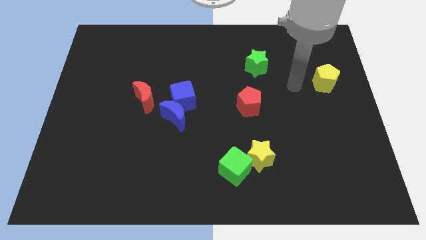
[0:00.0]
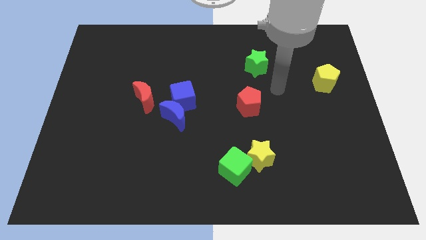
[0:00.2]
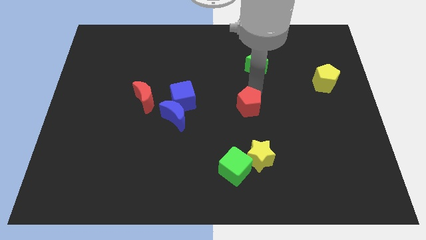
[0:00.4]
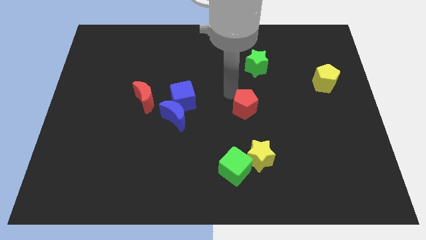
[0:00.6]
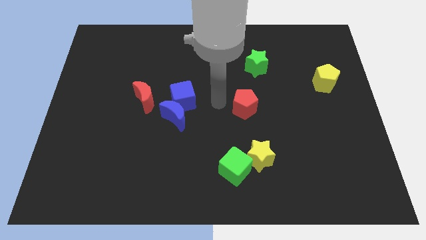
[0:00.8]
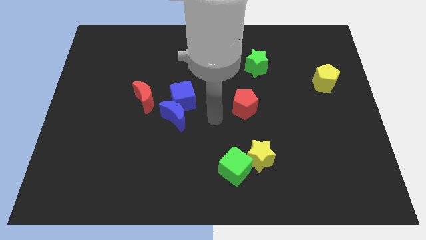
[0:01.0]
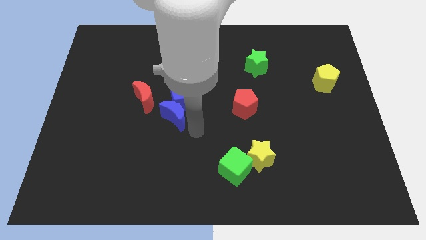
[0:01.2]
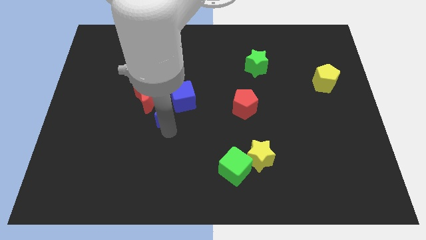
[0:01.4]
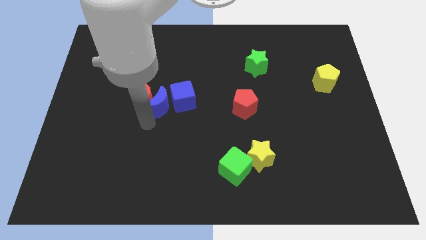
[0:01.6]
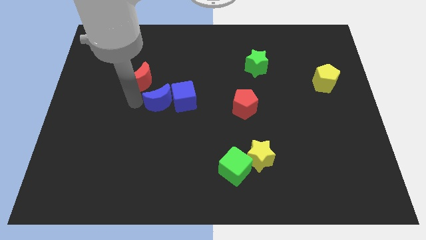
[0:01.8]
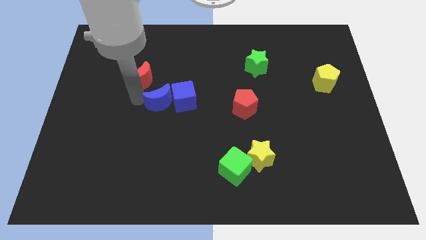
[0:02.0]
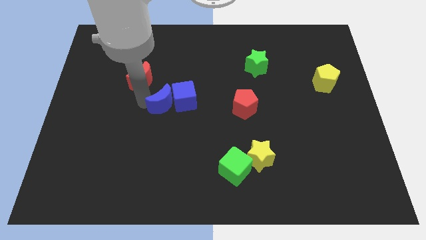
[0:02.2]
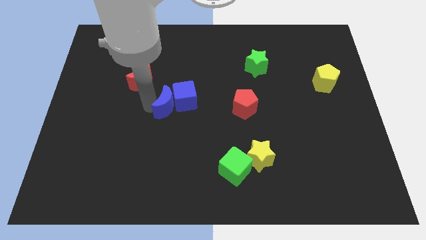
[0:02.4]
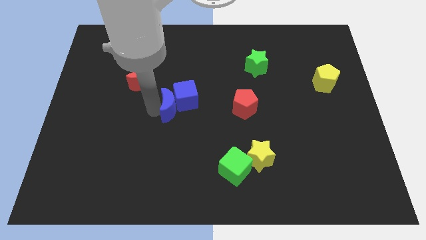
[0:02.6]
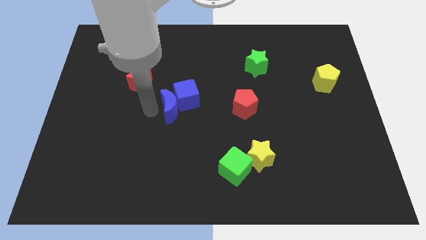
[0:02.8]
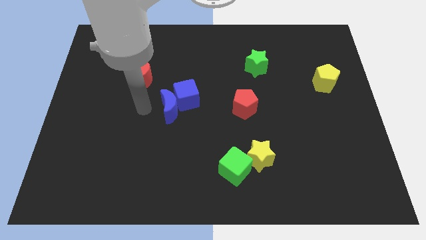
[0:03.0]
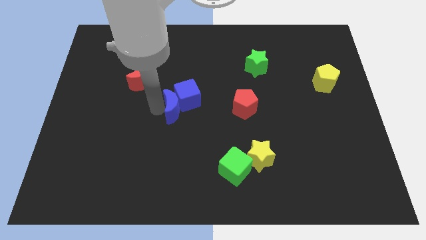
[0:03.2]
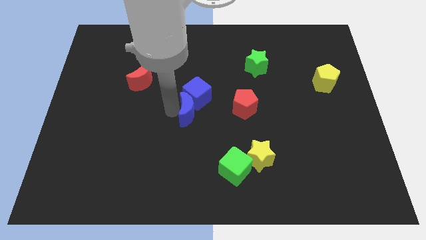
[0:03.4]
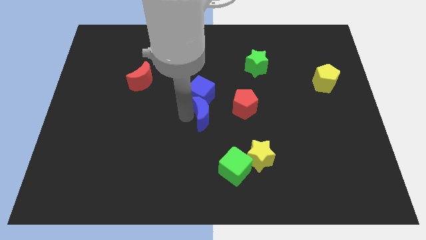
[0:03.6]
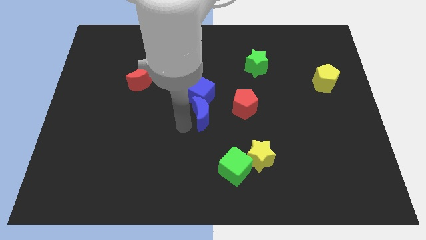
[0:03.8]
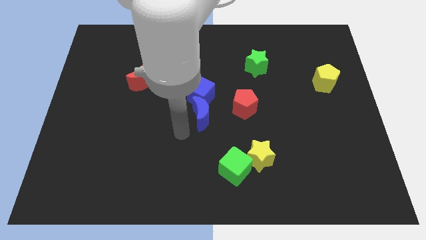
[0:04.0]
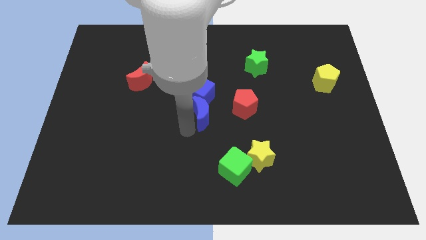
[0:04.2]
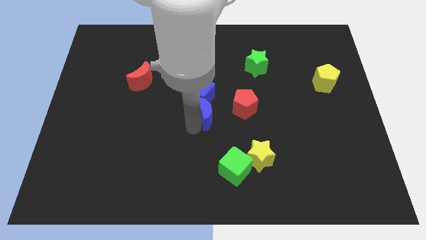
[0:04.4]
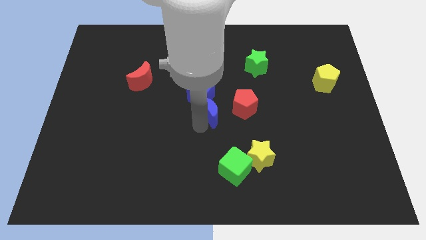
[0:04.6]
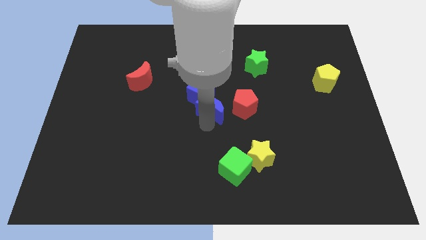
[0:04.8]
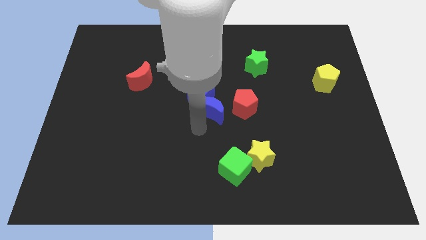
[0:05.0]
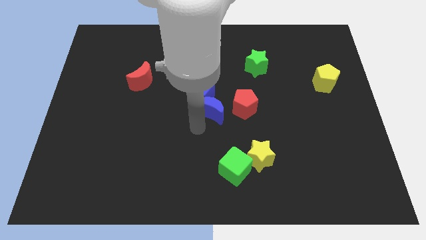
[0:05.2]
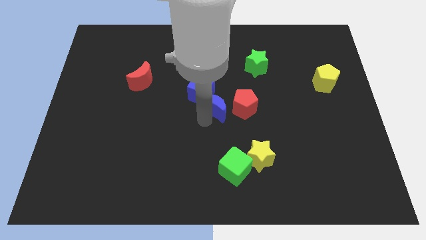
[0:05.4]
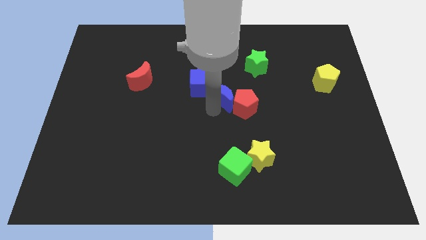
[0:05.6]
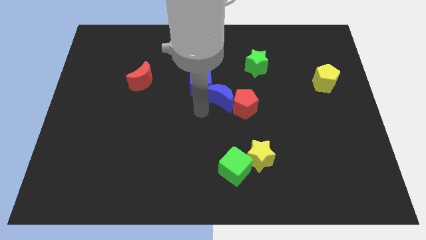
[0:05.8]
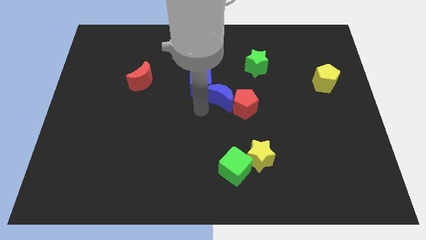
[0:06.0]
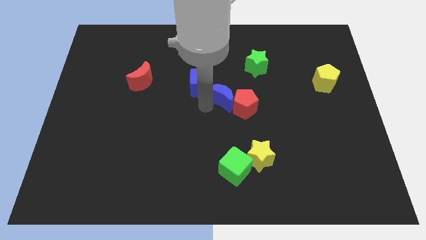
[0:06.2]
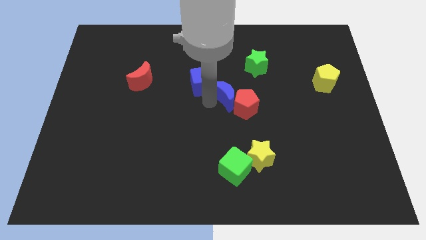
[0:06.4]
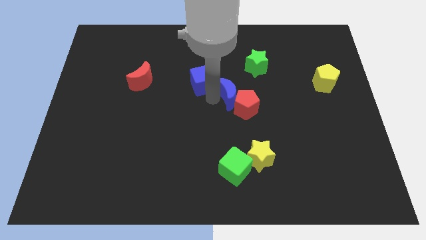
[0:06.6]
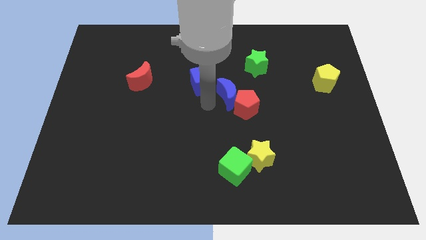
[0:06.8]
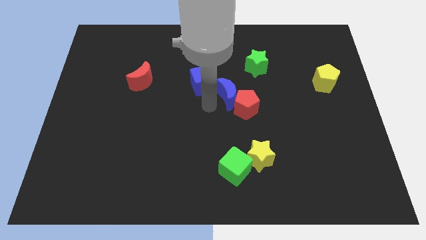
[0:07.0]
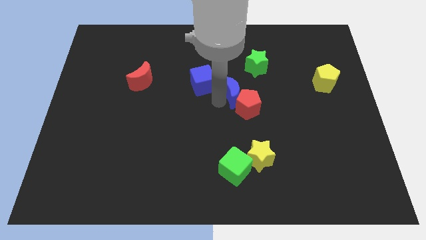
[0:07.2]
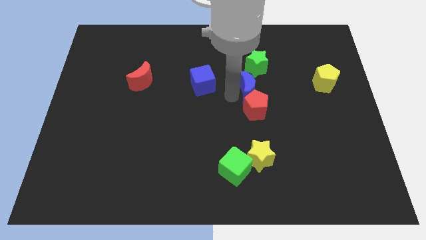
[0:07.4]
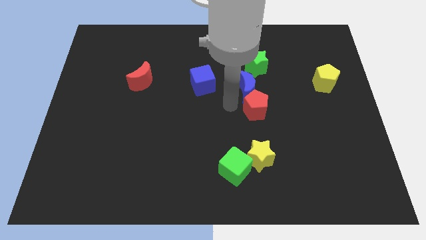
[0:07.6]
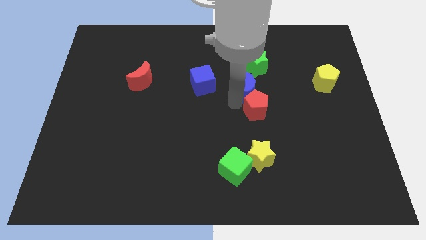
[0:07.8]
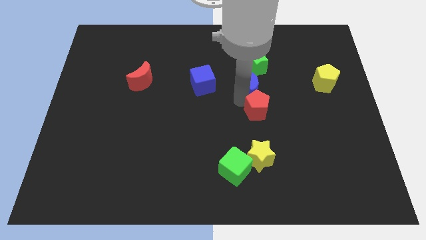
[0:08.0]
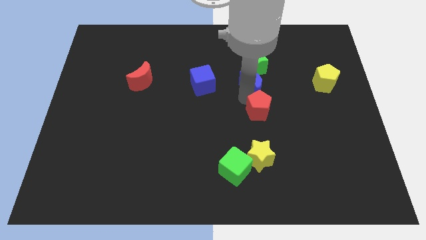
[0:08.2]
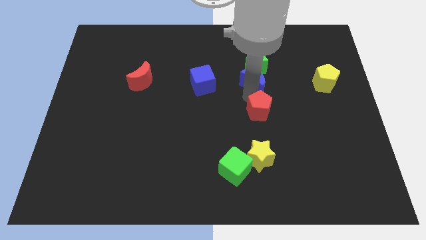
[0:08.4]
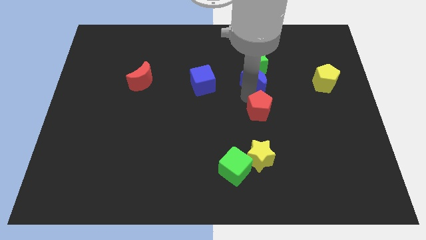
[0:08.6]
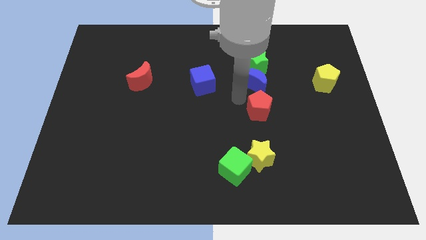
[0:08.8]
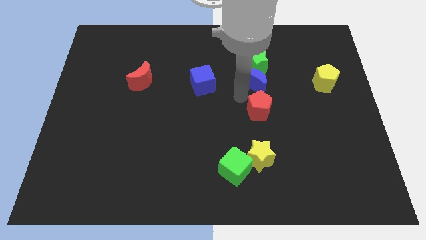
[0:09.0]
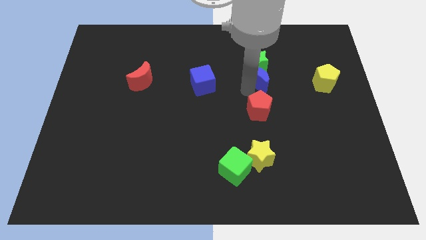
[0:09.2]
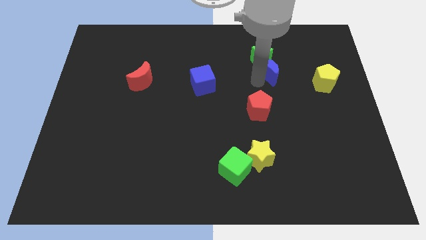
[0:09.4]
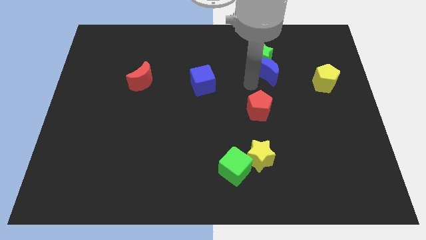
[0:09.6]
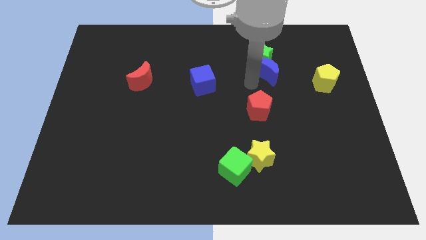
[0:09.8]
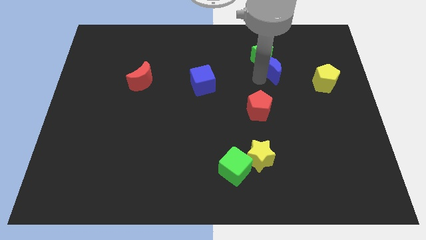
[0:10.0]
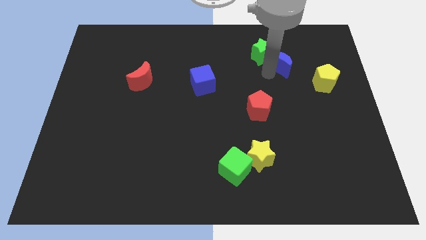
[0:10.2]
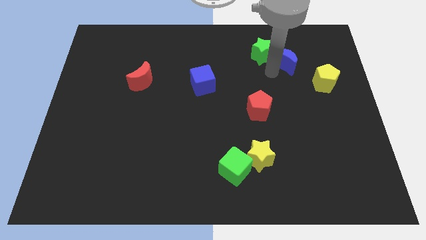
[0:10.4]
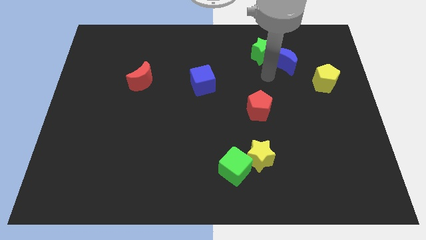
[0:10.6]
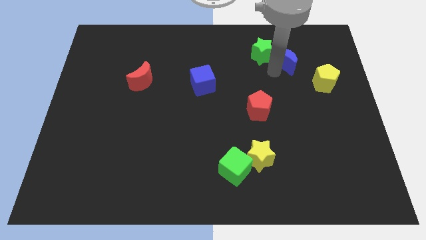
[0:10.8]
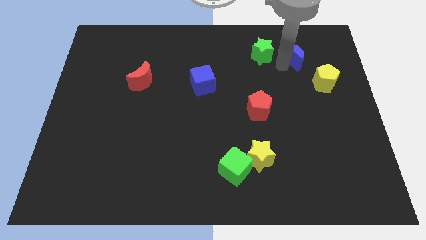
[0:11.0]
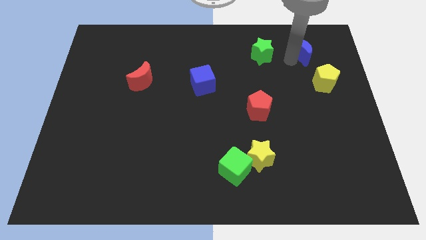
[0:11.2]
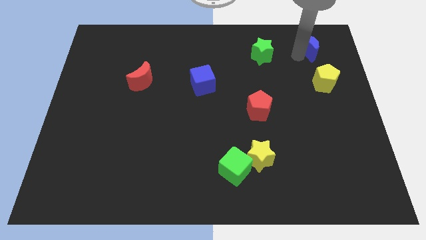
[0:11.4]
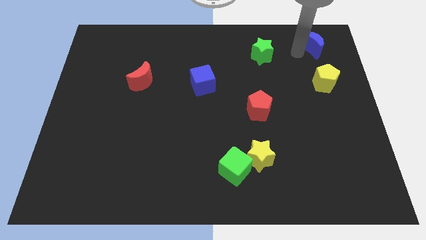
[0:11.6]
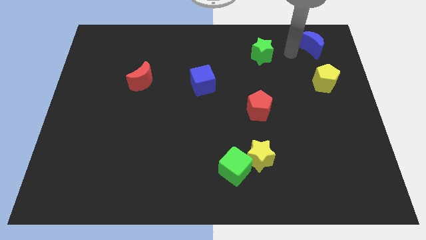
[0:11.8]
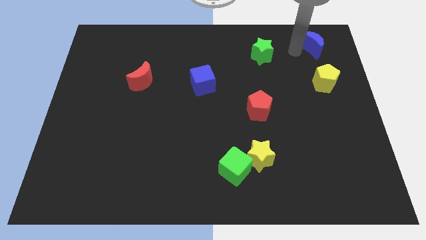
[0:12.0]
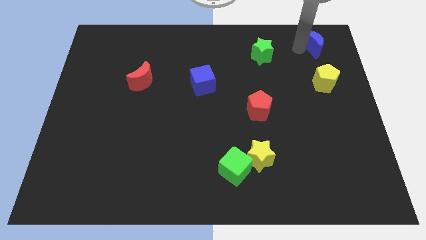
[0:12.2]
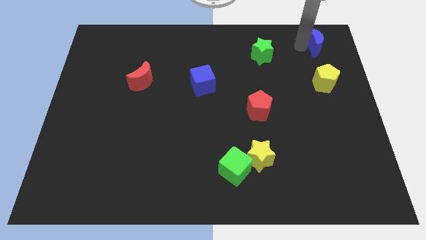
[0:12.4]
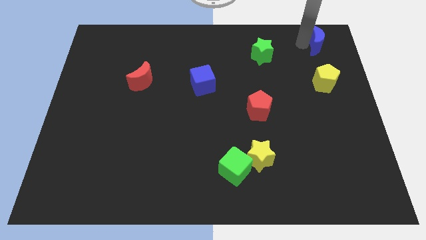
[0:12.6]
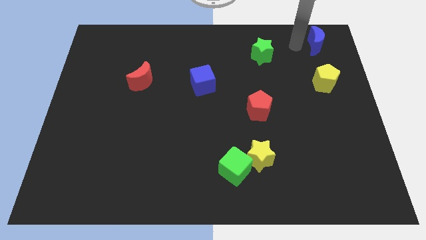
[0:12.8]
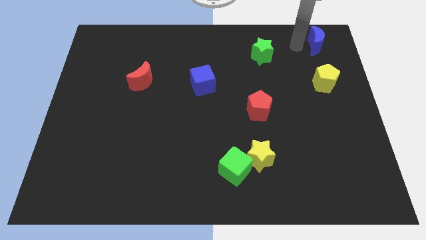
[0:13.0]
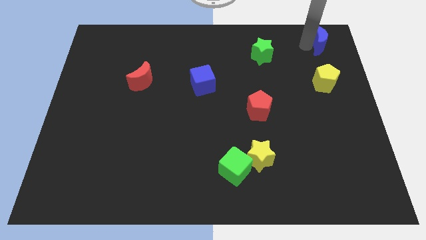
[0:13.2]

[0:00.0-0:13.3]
slide the blue moon to the top right corner
